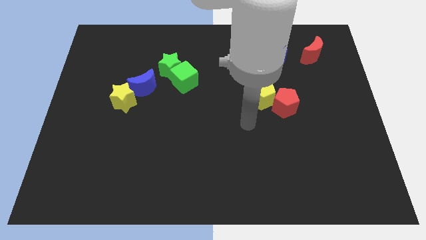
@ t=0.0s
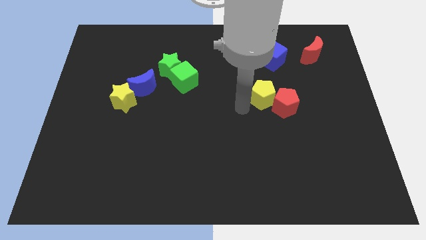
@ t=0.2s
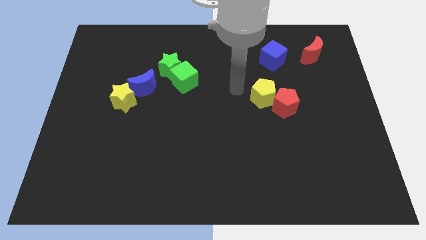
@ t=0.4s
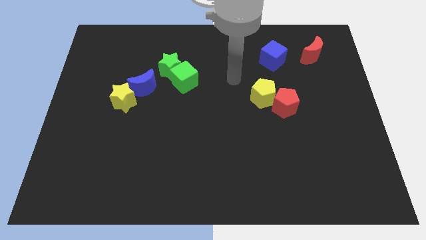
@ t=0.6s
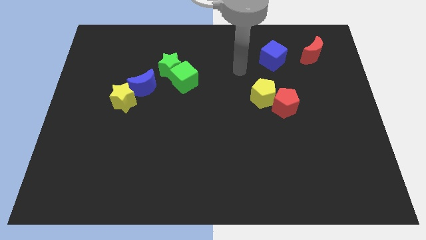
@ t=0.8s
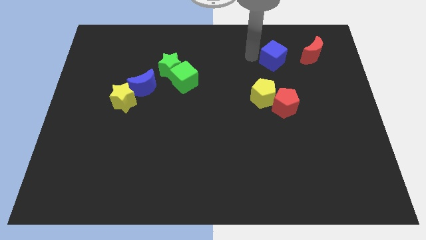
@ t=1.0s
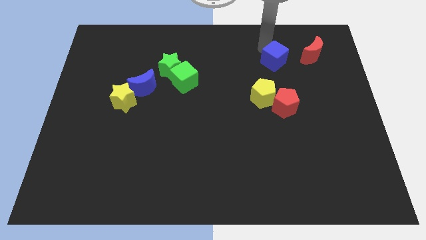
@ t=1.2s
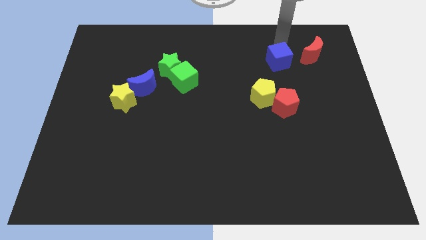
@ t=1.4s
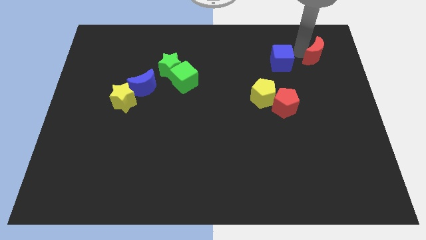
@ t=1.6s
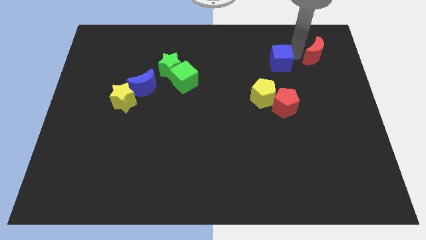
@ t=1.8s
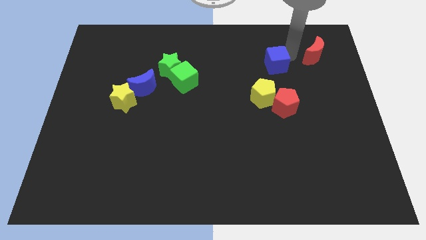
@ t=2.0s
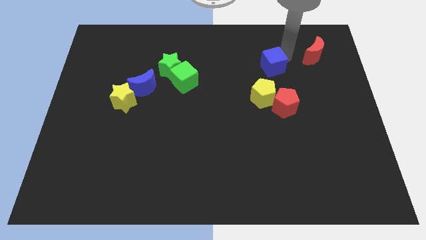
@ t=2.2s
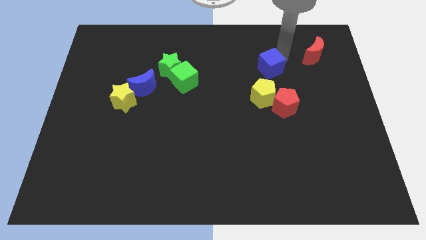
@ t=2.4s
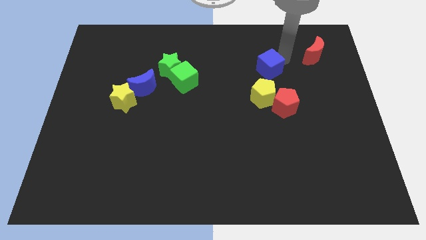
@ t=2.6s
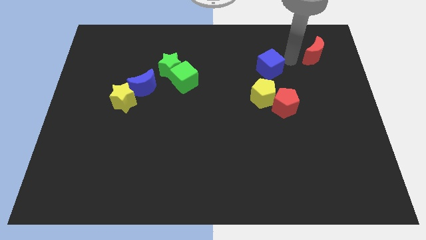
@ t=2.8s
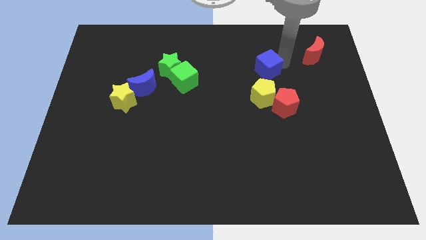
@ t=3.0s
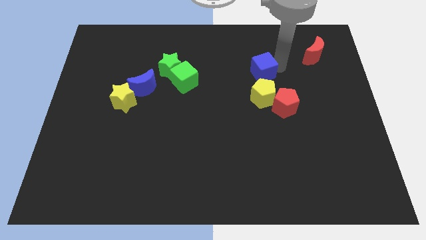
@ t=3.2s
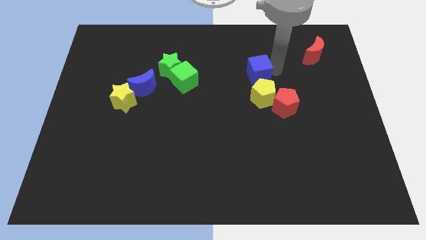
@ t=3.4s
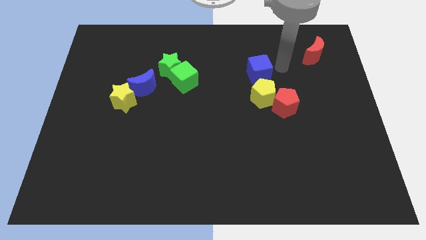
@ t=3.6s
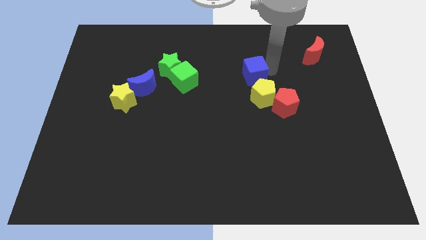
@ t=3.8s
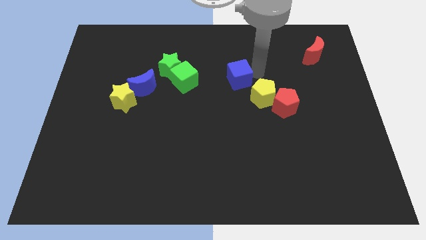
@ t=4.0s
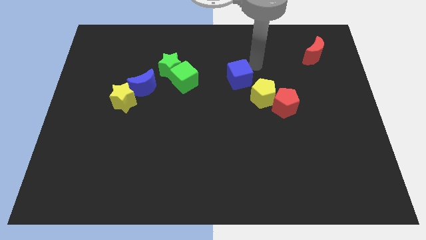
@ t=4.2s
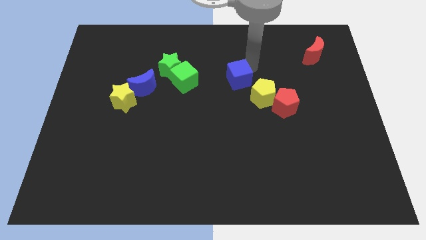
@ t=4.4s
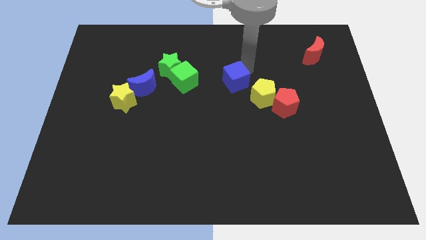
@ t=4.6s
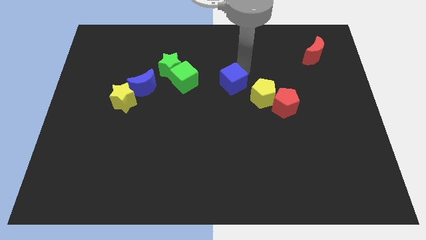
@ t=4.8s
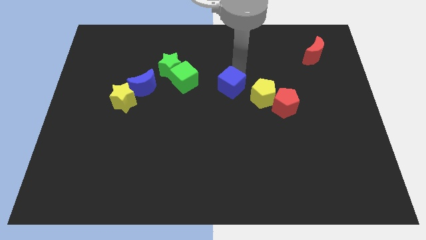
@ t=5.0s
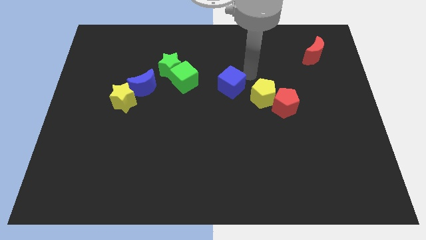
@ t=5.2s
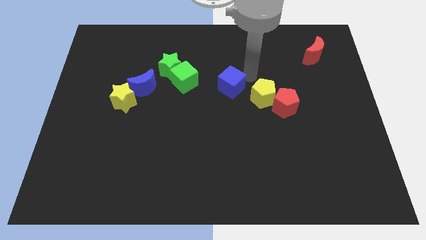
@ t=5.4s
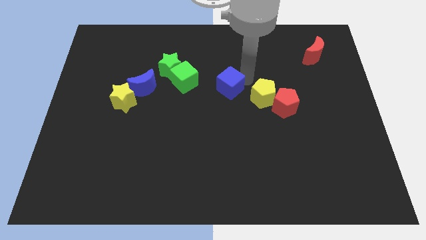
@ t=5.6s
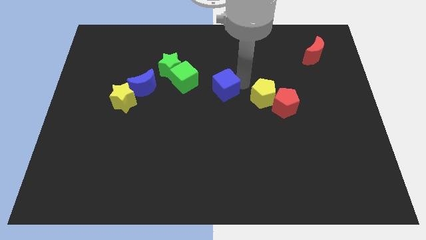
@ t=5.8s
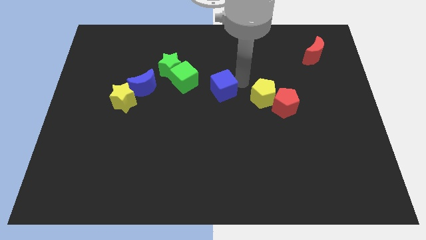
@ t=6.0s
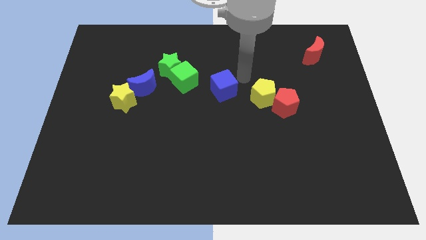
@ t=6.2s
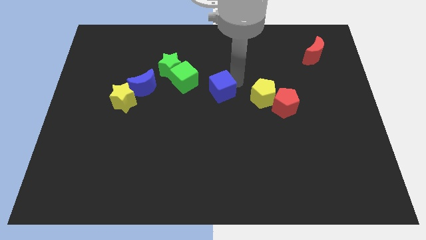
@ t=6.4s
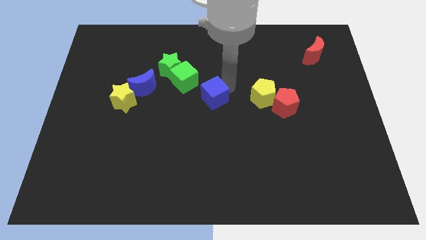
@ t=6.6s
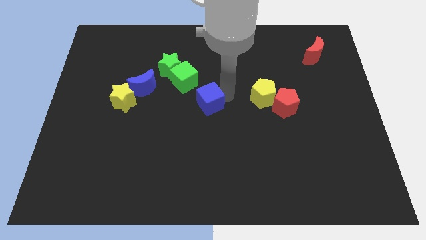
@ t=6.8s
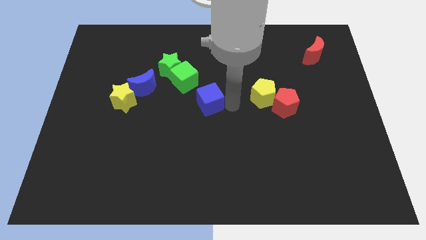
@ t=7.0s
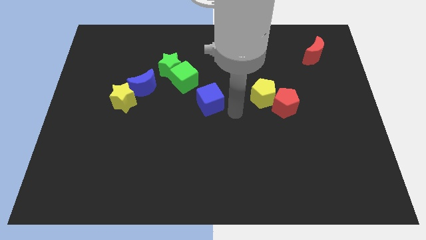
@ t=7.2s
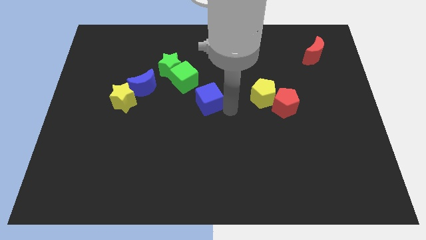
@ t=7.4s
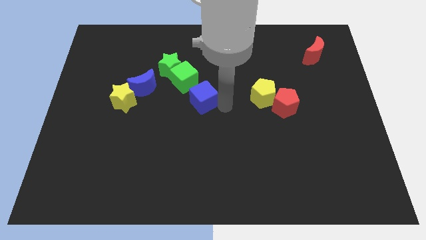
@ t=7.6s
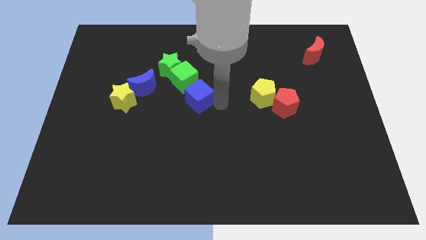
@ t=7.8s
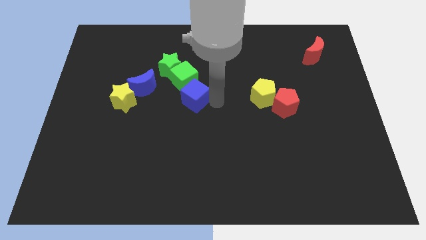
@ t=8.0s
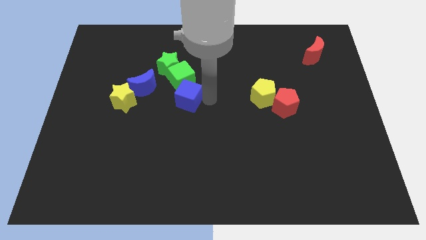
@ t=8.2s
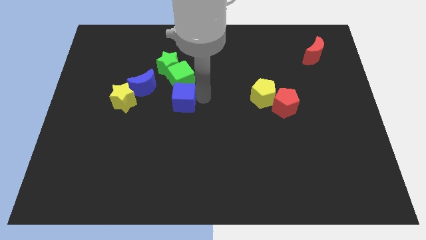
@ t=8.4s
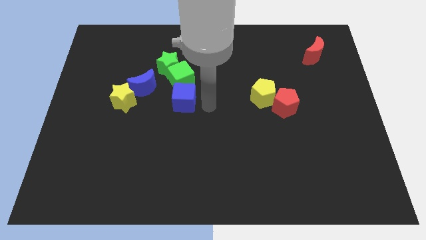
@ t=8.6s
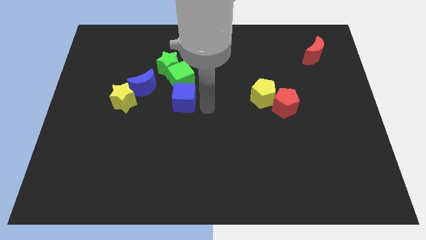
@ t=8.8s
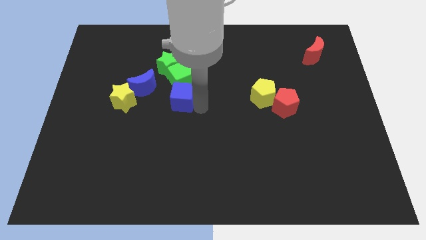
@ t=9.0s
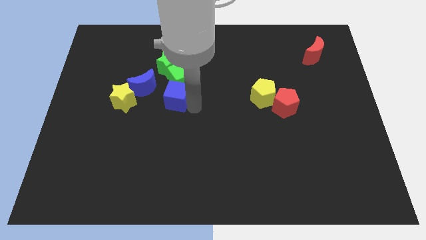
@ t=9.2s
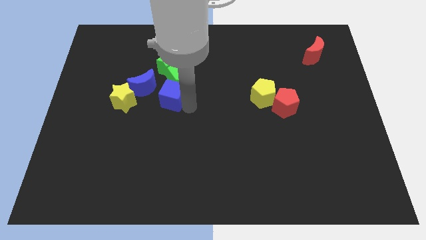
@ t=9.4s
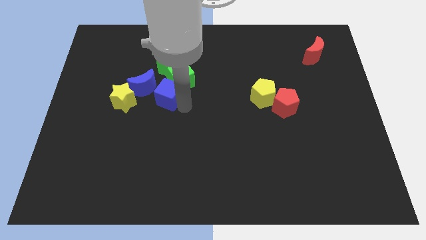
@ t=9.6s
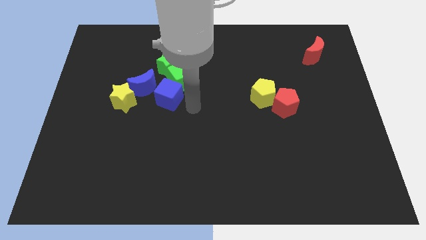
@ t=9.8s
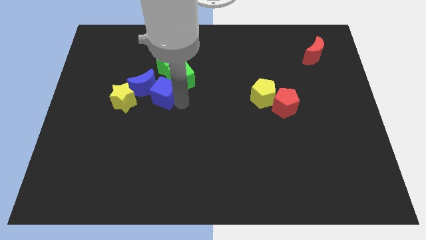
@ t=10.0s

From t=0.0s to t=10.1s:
put the blue cube next to the blue moon

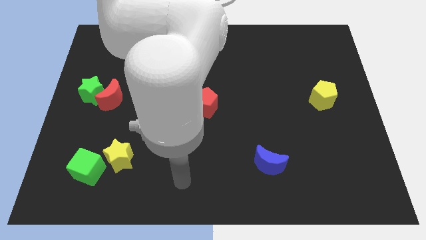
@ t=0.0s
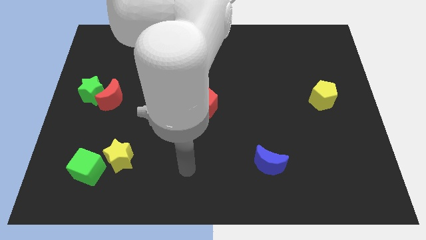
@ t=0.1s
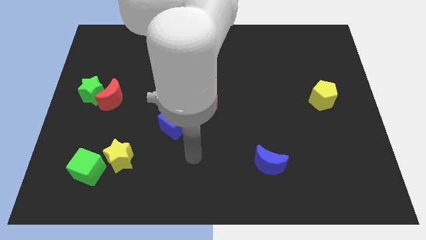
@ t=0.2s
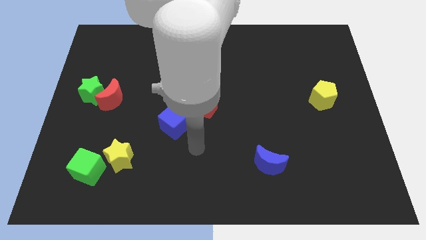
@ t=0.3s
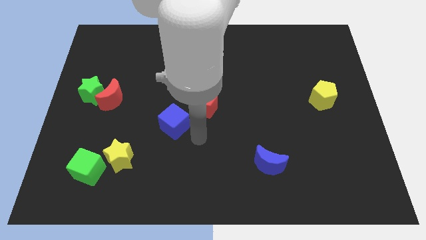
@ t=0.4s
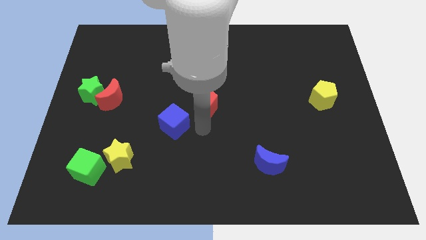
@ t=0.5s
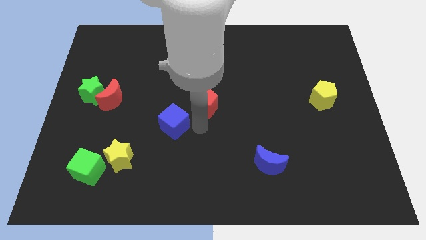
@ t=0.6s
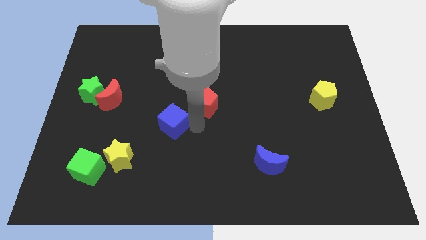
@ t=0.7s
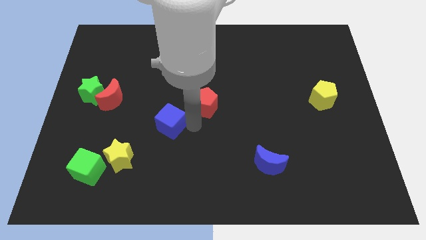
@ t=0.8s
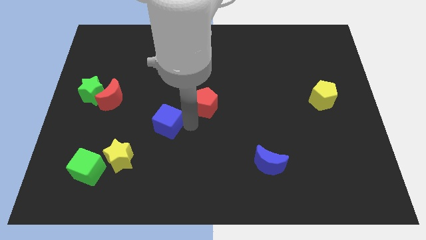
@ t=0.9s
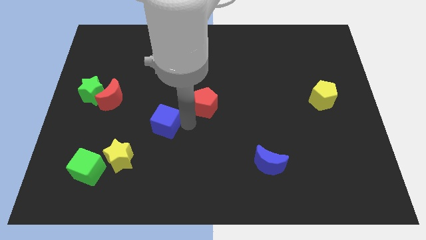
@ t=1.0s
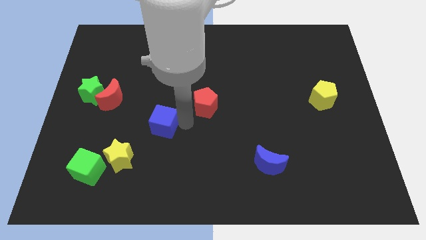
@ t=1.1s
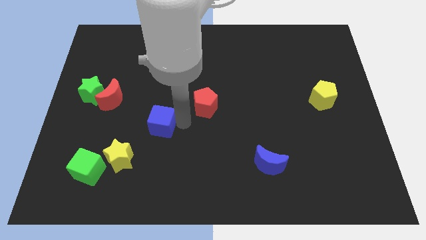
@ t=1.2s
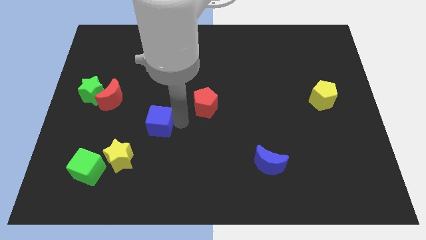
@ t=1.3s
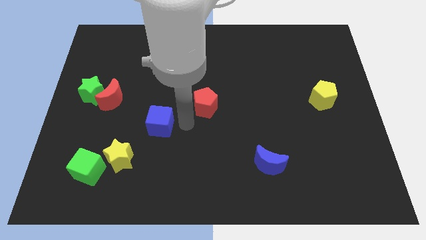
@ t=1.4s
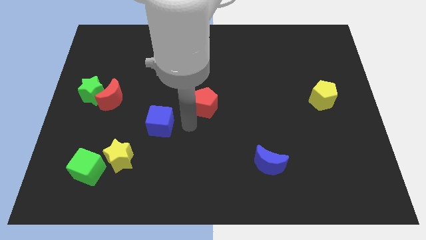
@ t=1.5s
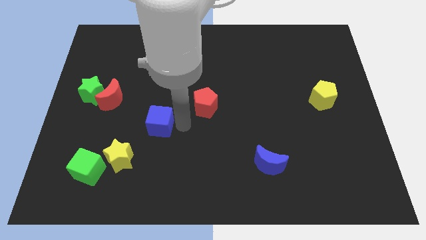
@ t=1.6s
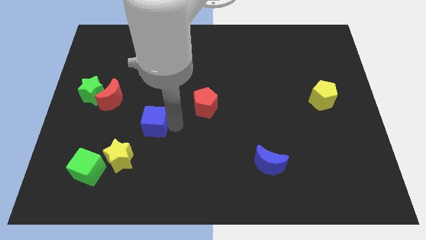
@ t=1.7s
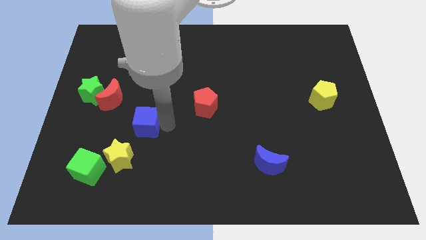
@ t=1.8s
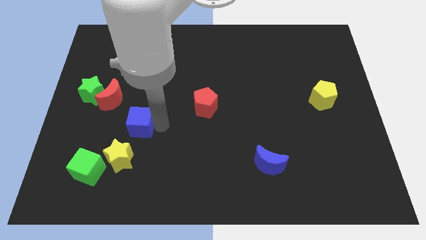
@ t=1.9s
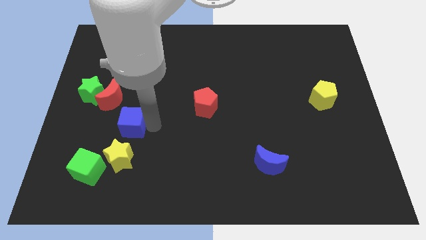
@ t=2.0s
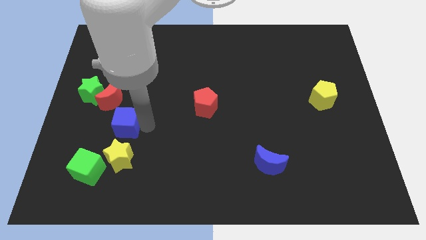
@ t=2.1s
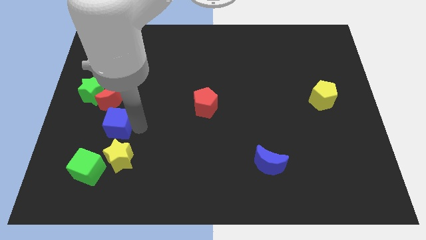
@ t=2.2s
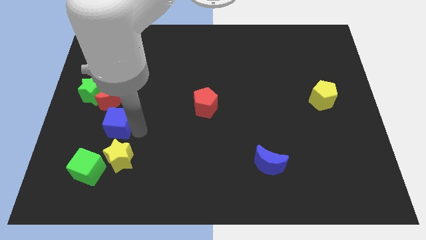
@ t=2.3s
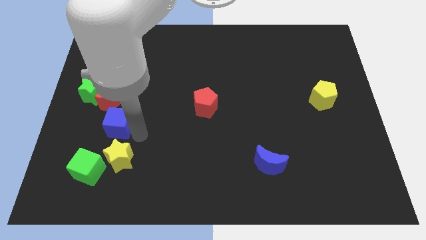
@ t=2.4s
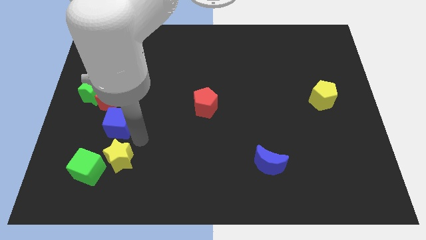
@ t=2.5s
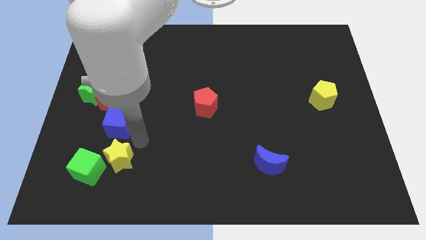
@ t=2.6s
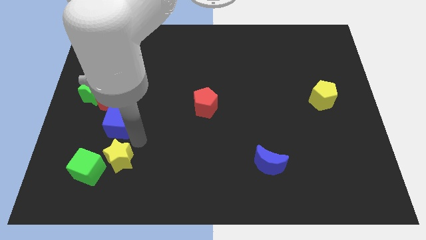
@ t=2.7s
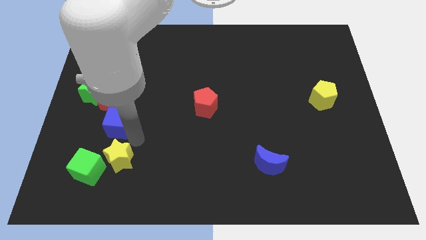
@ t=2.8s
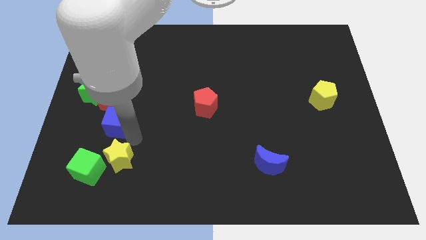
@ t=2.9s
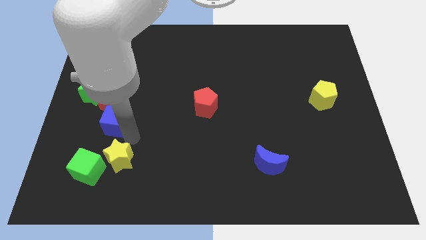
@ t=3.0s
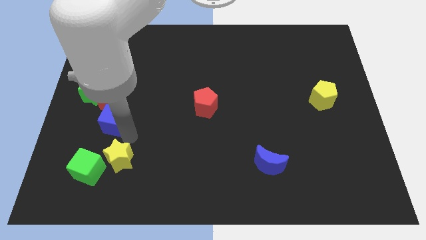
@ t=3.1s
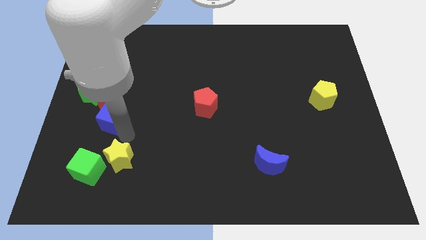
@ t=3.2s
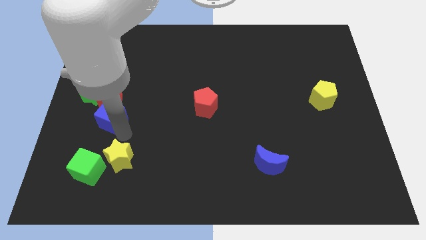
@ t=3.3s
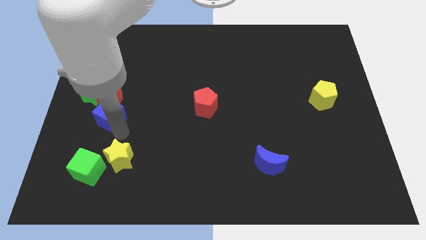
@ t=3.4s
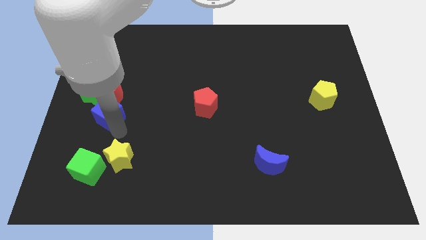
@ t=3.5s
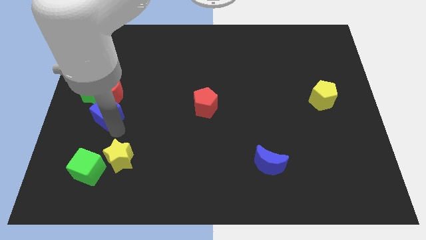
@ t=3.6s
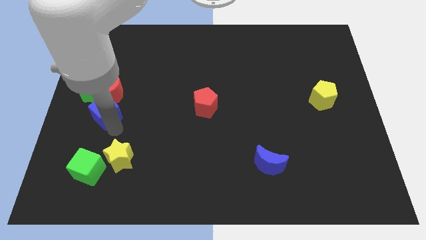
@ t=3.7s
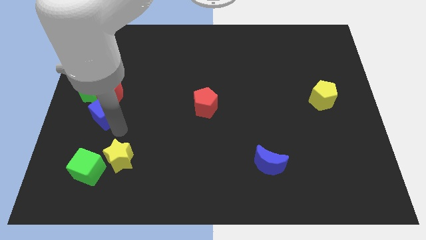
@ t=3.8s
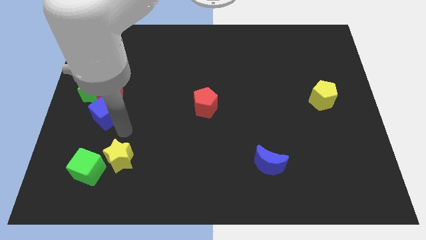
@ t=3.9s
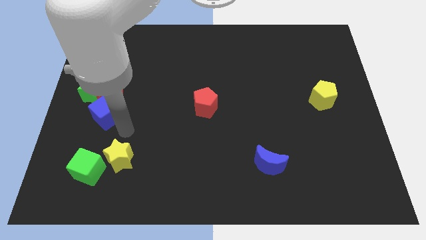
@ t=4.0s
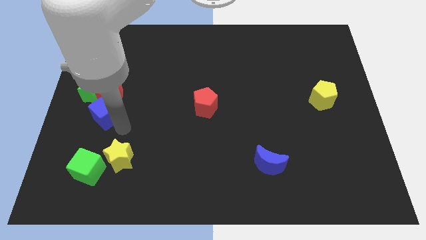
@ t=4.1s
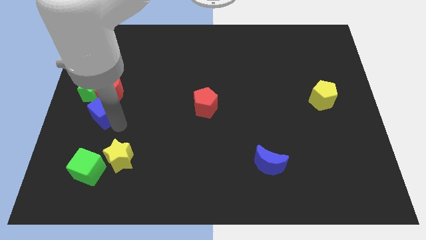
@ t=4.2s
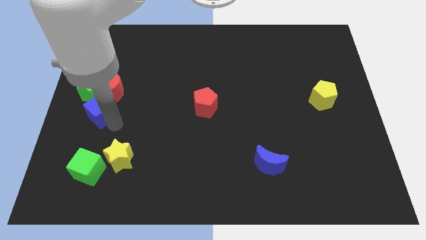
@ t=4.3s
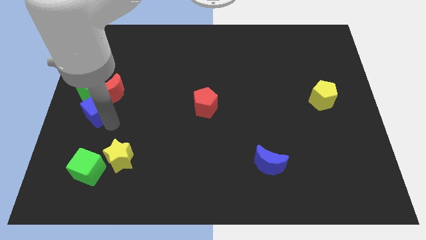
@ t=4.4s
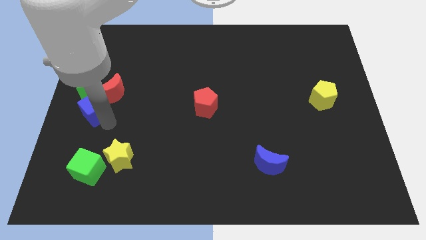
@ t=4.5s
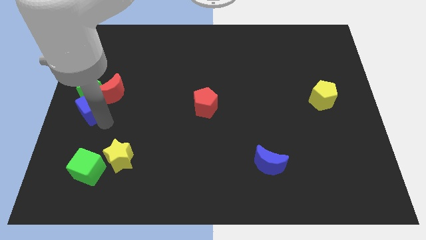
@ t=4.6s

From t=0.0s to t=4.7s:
push the blue cube to the green star
